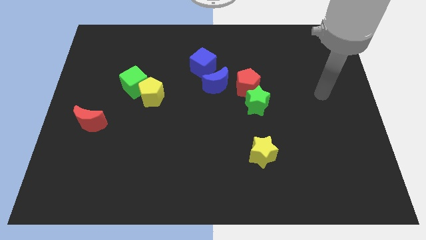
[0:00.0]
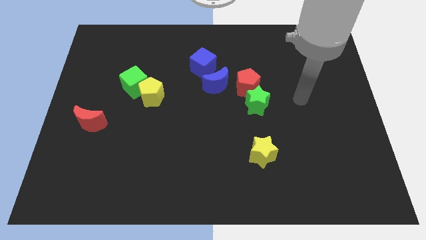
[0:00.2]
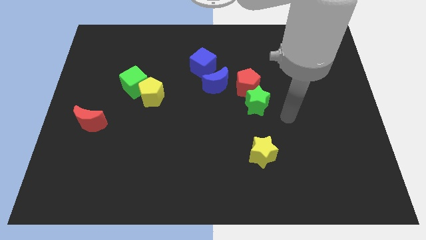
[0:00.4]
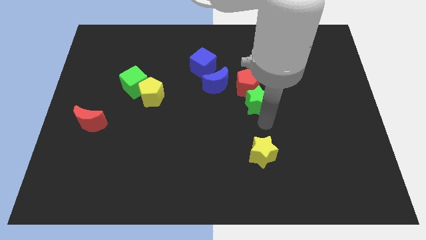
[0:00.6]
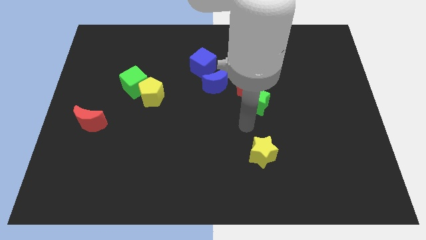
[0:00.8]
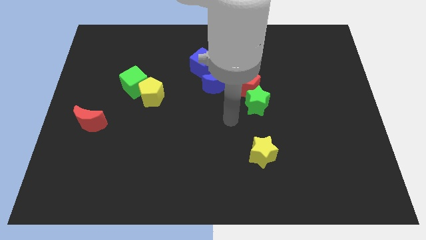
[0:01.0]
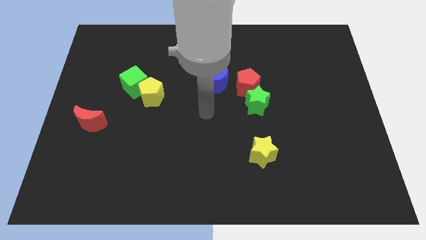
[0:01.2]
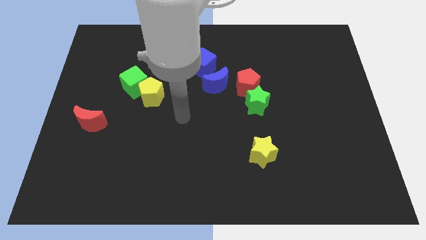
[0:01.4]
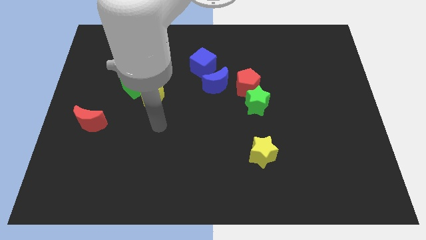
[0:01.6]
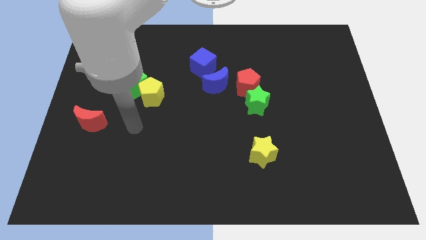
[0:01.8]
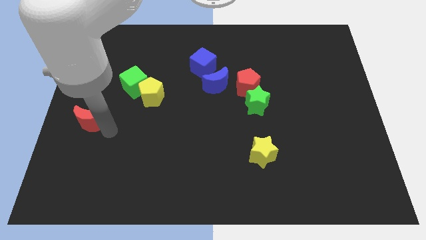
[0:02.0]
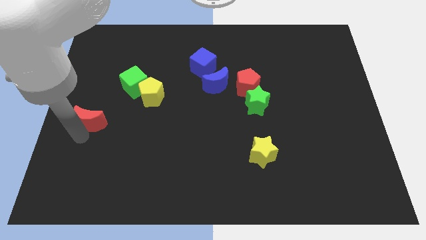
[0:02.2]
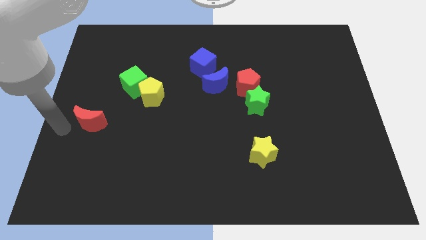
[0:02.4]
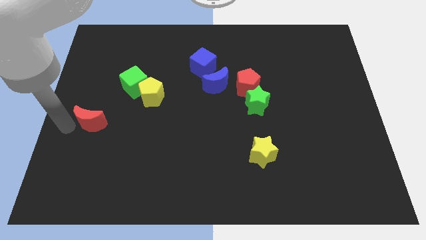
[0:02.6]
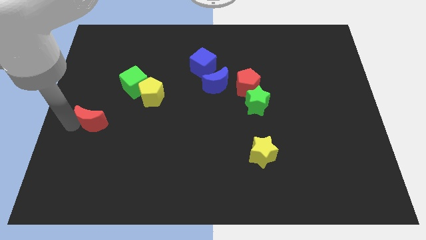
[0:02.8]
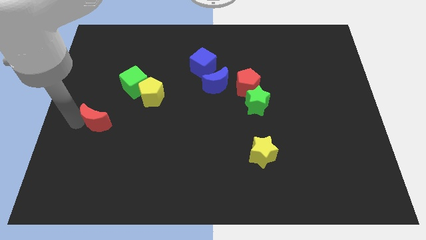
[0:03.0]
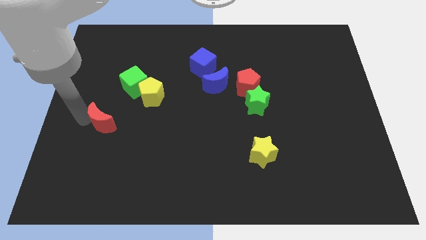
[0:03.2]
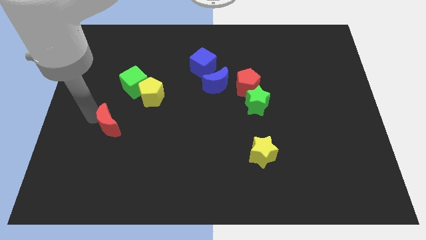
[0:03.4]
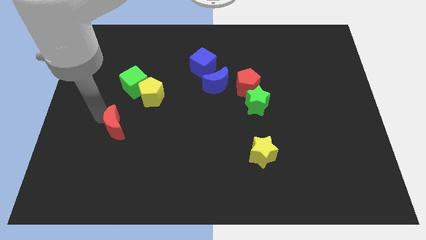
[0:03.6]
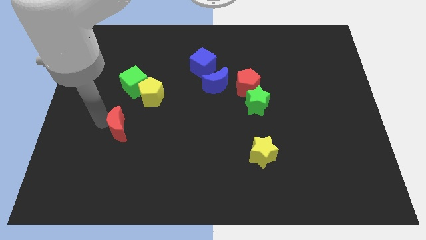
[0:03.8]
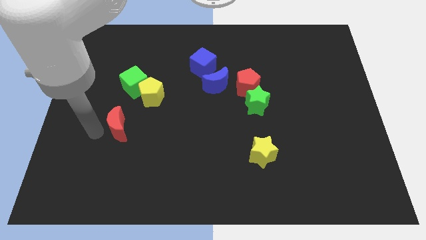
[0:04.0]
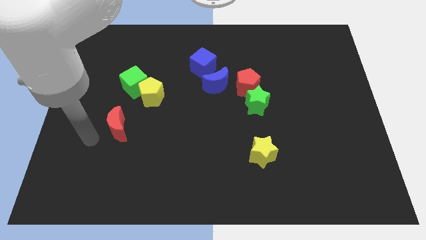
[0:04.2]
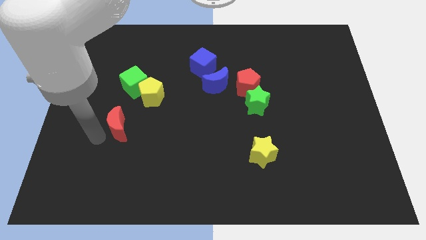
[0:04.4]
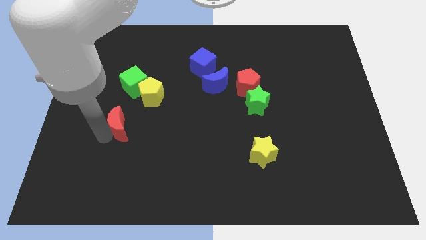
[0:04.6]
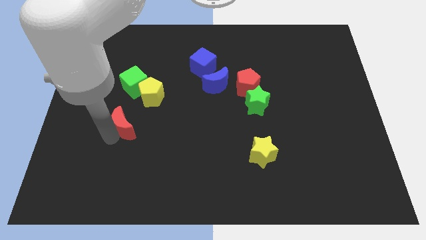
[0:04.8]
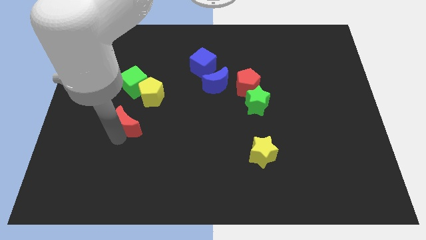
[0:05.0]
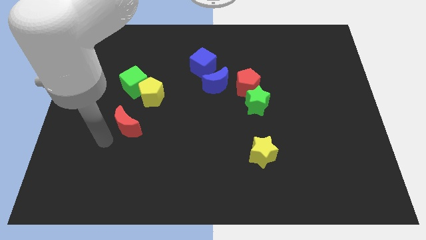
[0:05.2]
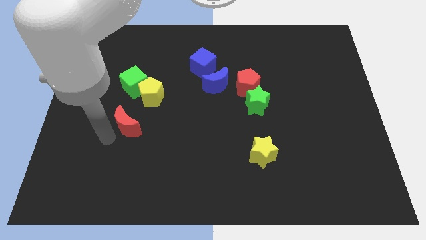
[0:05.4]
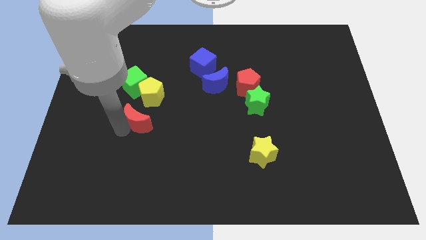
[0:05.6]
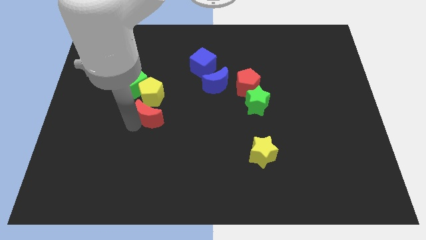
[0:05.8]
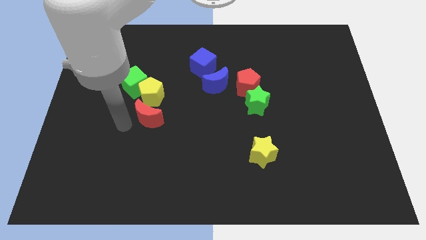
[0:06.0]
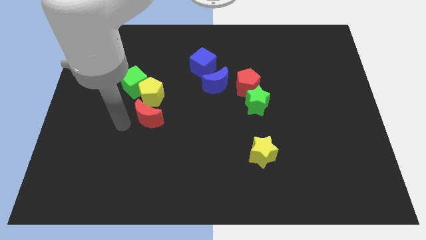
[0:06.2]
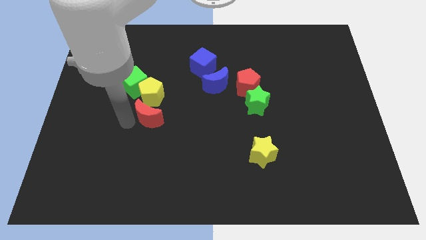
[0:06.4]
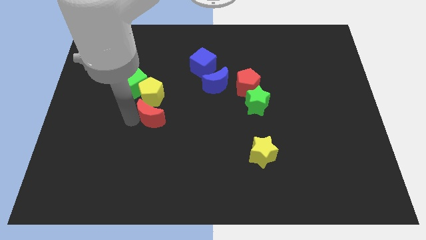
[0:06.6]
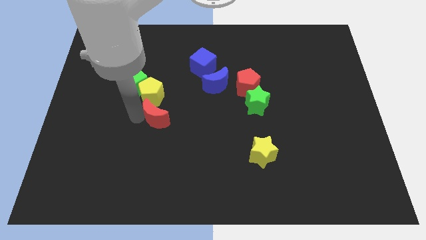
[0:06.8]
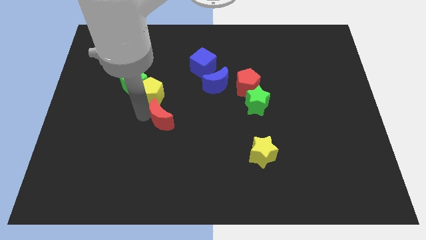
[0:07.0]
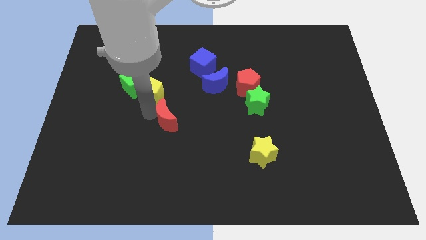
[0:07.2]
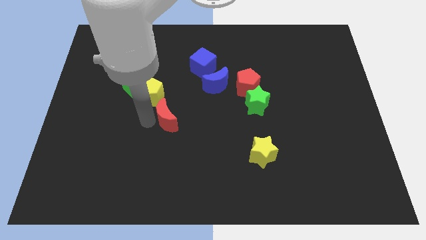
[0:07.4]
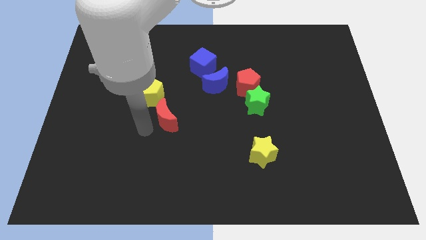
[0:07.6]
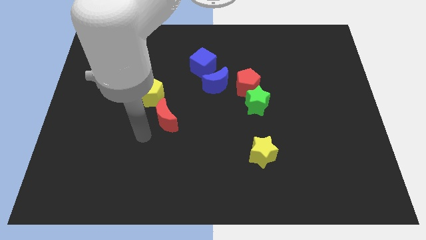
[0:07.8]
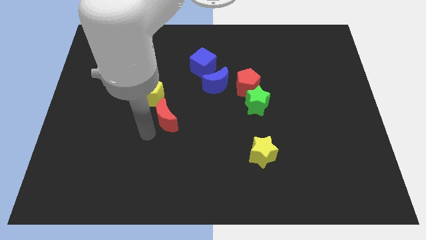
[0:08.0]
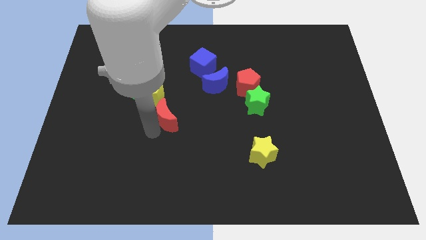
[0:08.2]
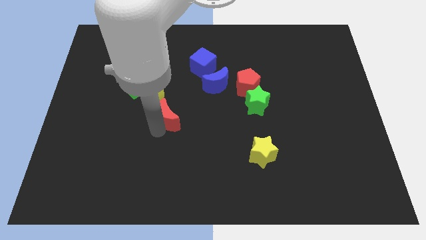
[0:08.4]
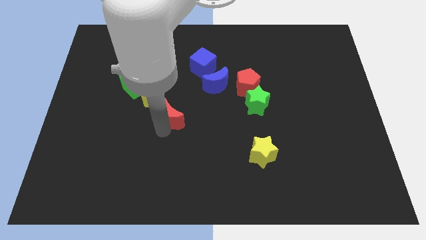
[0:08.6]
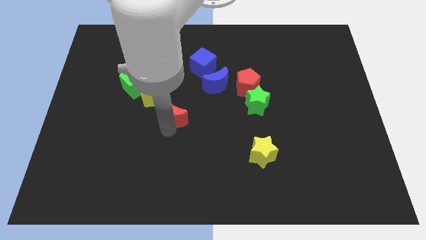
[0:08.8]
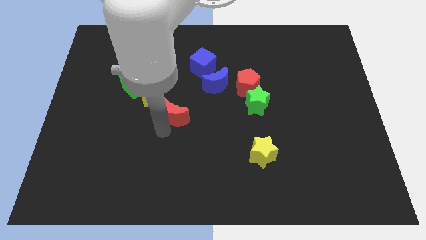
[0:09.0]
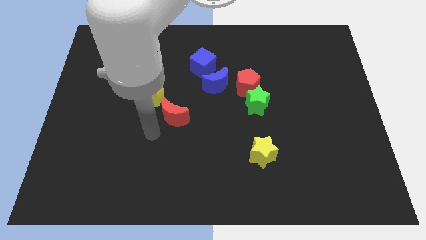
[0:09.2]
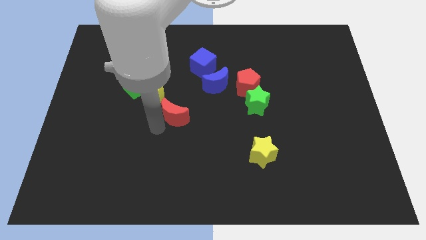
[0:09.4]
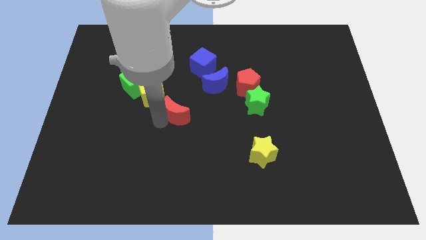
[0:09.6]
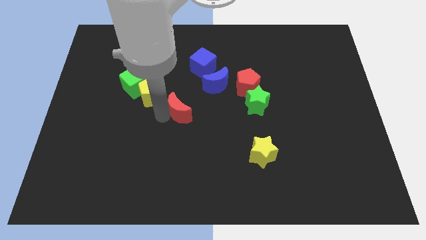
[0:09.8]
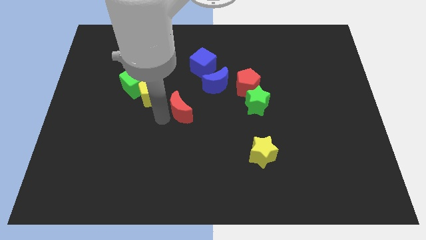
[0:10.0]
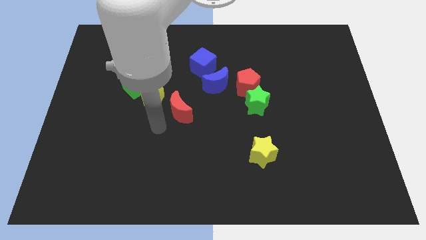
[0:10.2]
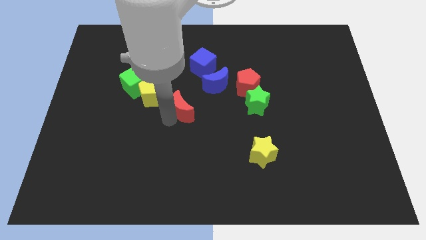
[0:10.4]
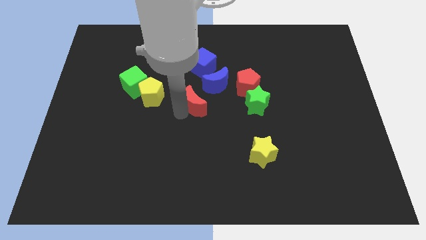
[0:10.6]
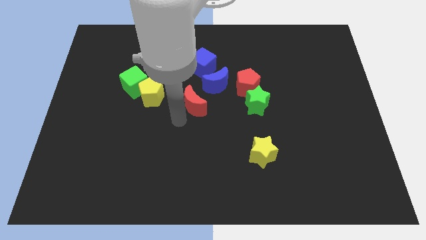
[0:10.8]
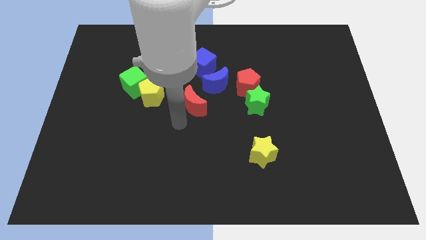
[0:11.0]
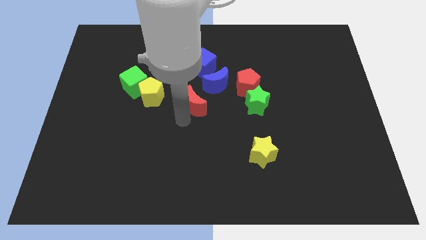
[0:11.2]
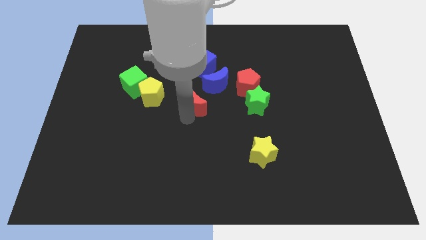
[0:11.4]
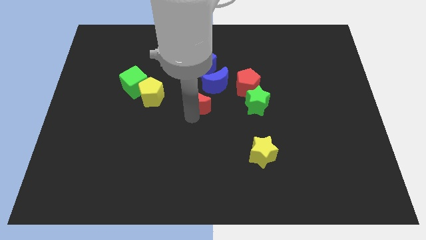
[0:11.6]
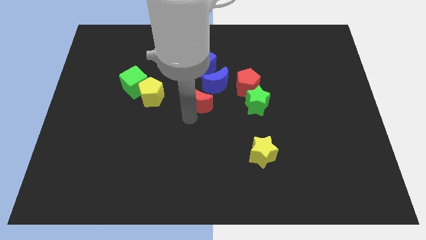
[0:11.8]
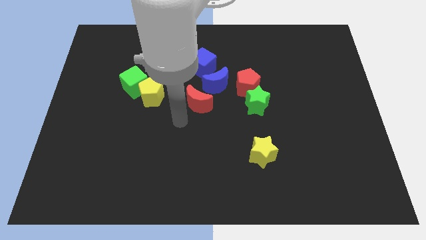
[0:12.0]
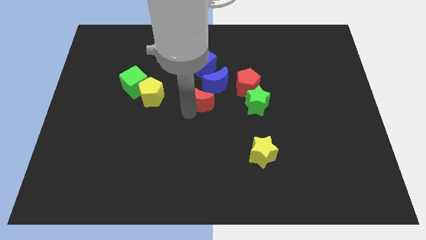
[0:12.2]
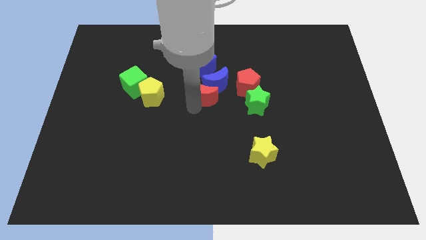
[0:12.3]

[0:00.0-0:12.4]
put the red moon close to the blue moon

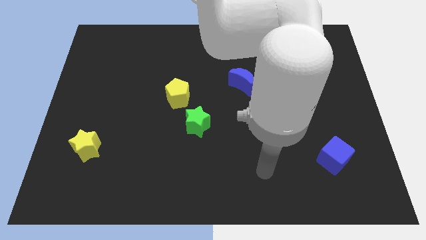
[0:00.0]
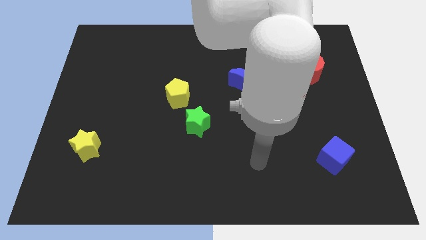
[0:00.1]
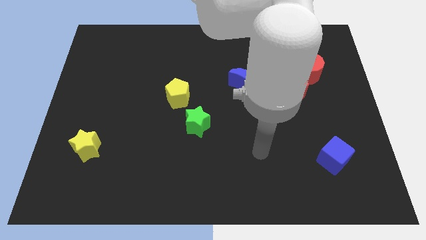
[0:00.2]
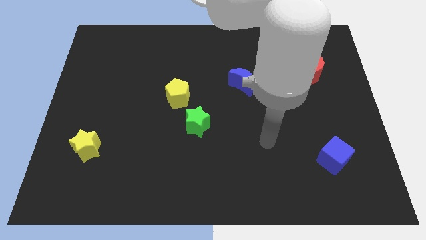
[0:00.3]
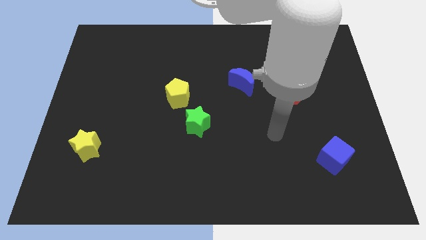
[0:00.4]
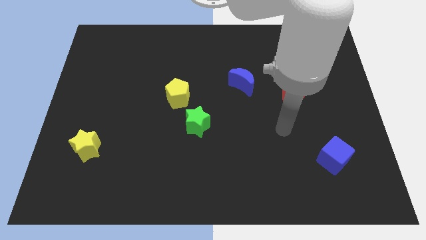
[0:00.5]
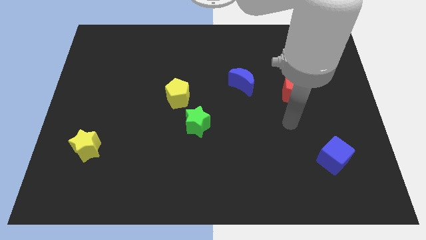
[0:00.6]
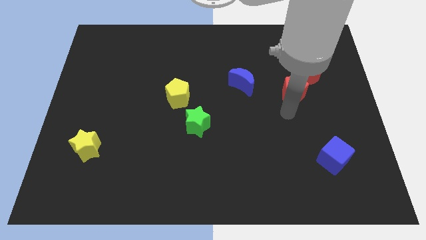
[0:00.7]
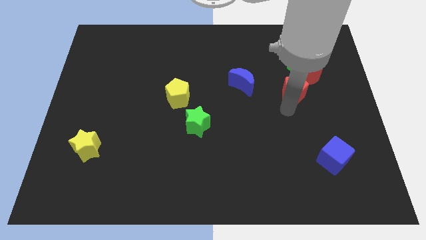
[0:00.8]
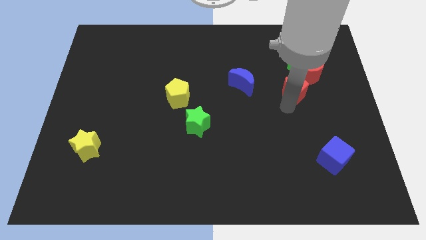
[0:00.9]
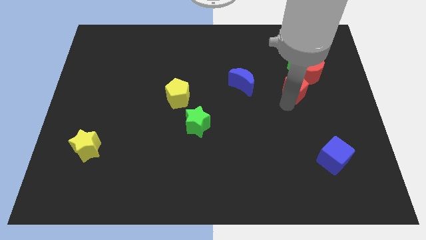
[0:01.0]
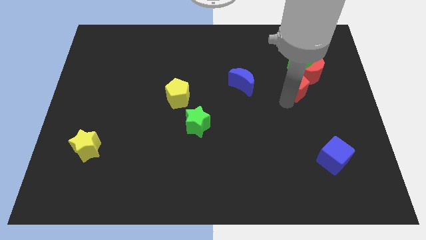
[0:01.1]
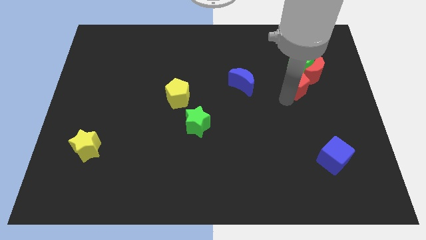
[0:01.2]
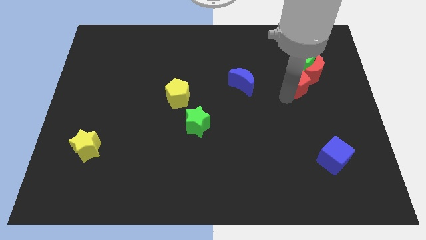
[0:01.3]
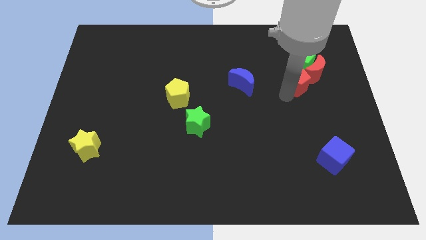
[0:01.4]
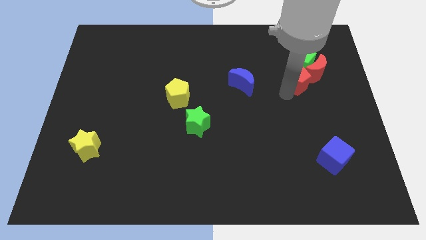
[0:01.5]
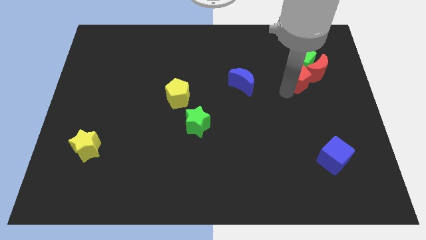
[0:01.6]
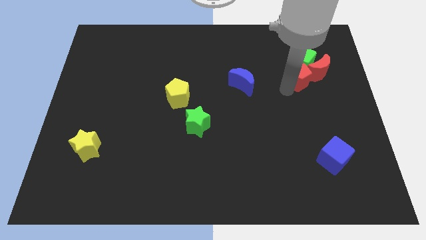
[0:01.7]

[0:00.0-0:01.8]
slide the red pentagon towards the green cube
